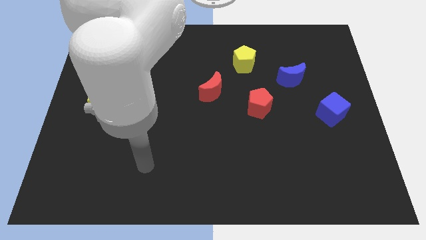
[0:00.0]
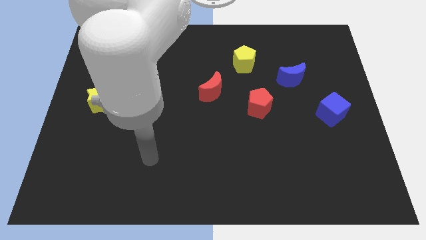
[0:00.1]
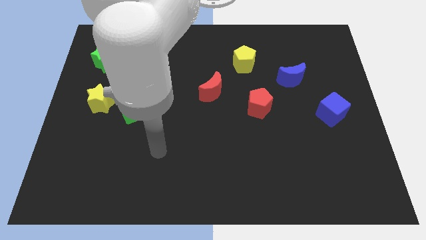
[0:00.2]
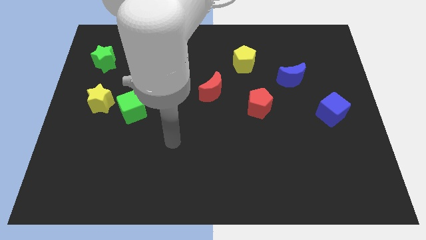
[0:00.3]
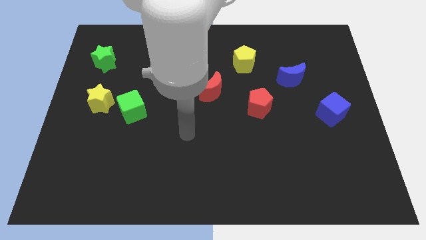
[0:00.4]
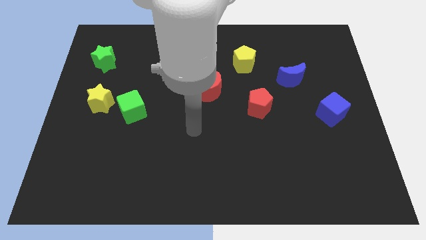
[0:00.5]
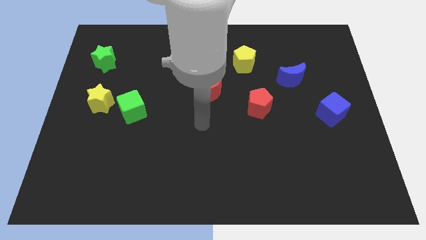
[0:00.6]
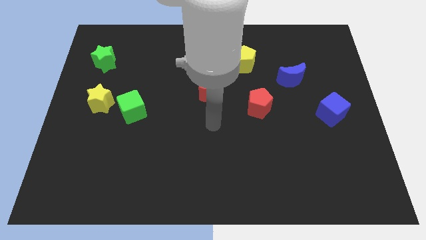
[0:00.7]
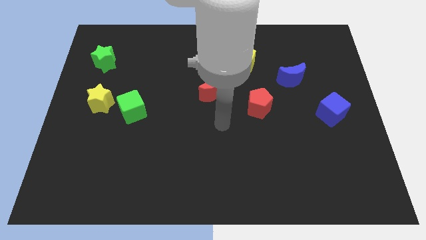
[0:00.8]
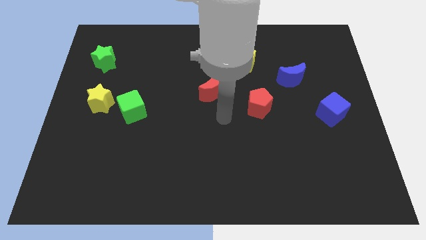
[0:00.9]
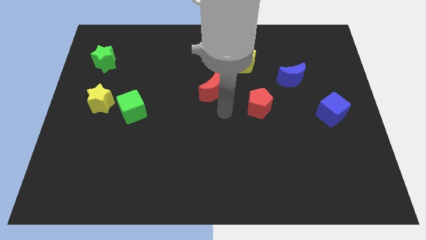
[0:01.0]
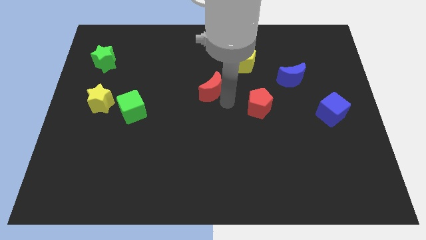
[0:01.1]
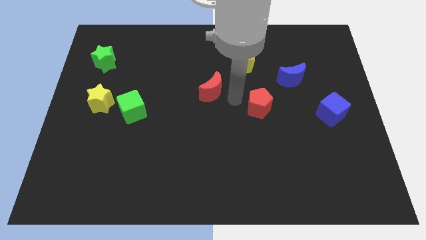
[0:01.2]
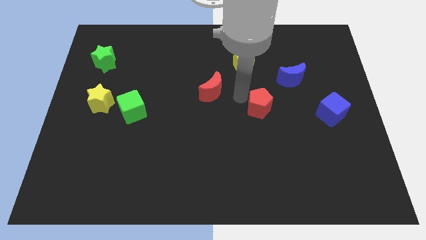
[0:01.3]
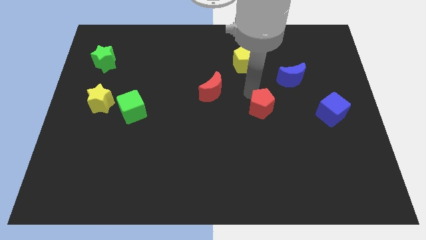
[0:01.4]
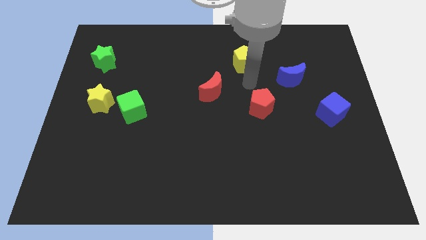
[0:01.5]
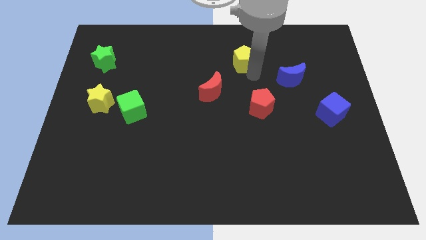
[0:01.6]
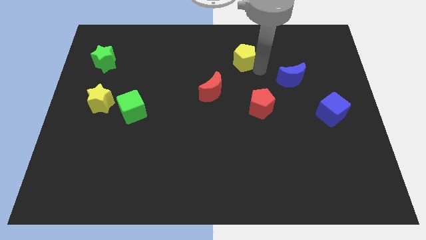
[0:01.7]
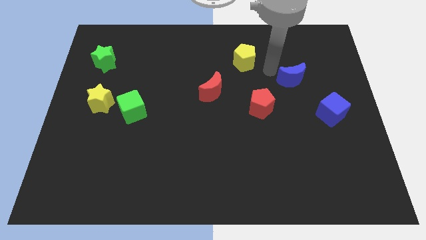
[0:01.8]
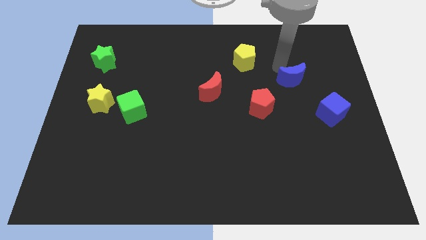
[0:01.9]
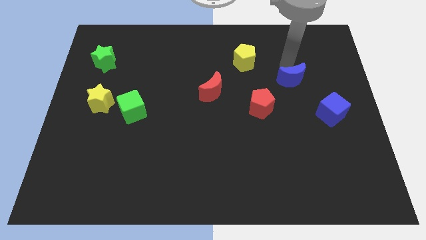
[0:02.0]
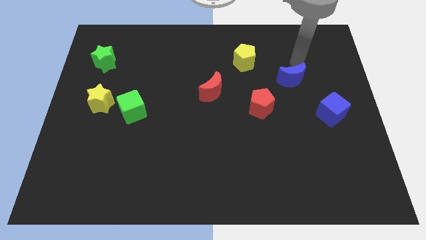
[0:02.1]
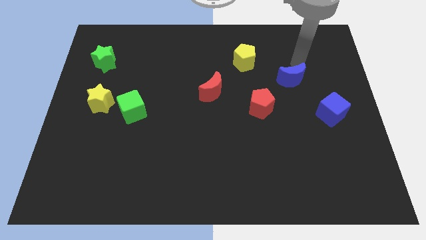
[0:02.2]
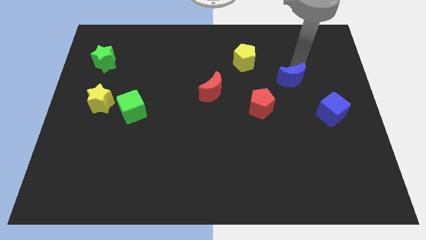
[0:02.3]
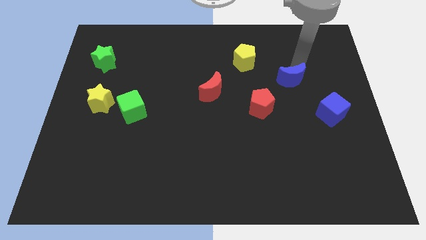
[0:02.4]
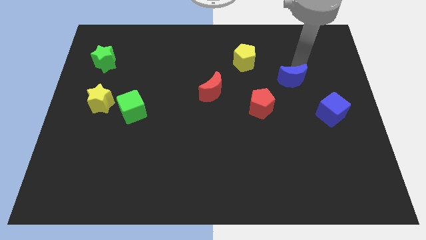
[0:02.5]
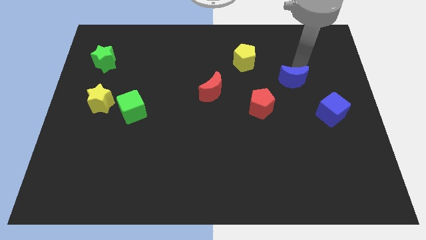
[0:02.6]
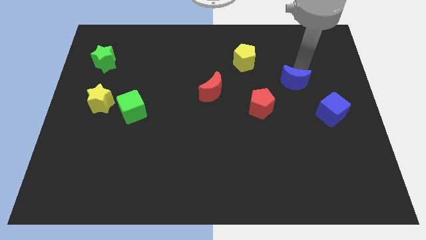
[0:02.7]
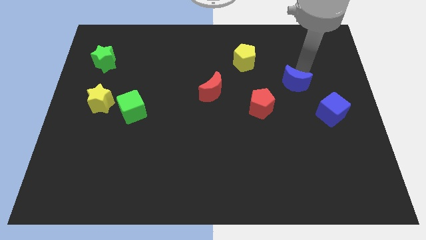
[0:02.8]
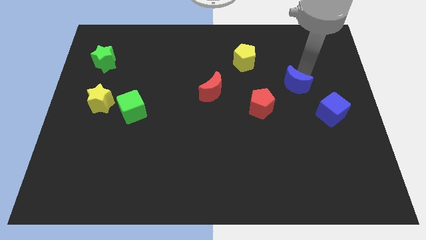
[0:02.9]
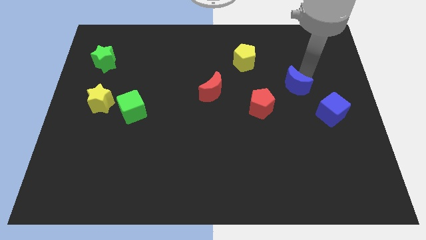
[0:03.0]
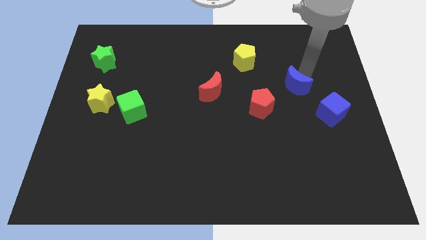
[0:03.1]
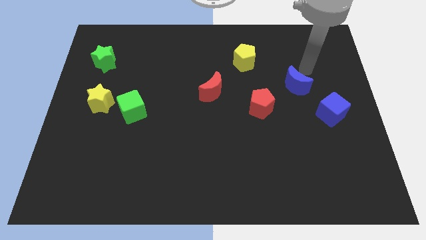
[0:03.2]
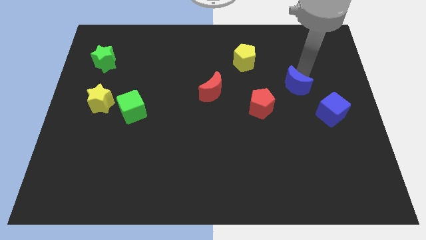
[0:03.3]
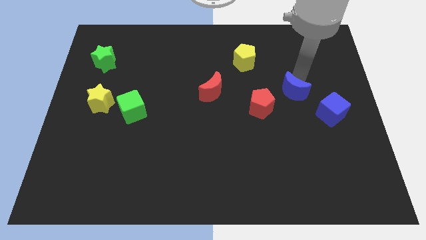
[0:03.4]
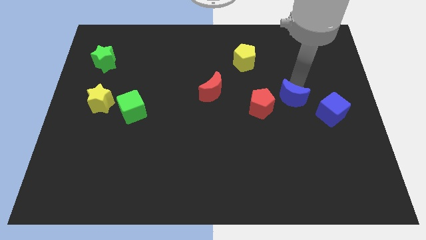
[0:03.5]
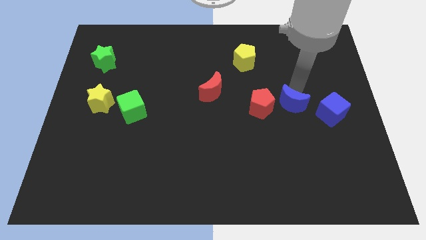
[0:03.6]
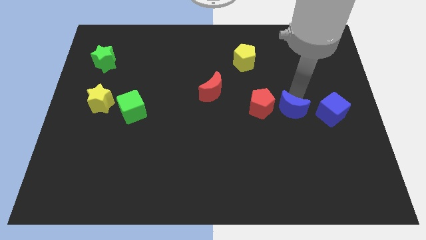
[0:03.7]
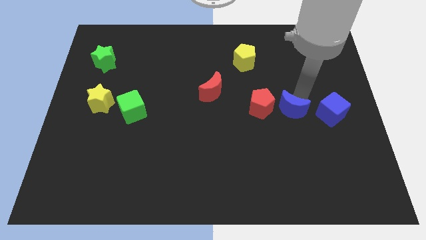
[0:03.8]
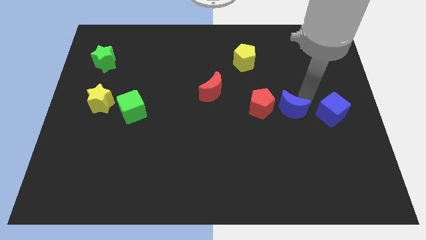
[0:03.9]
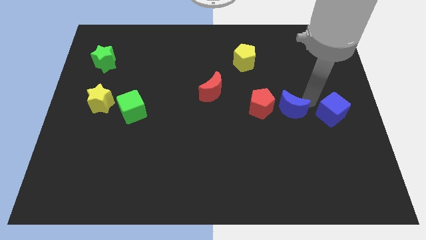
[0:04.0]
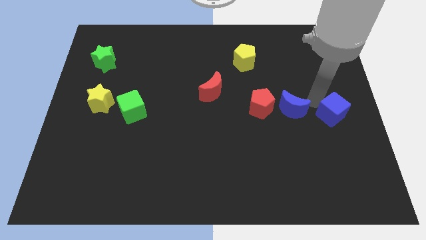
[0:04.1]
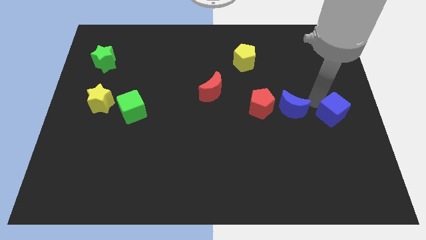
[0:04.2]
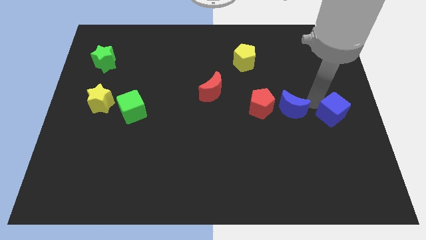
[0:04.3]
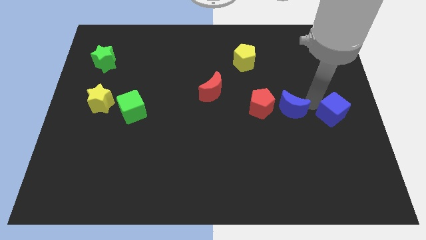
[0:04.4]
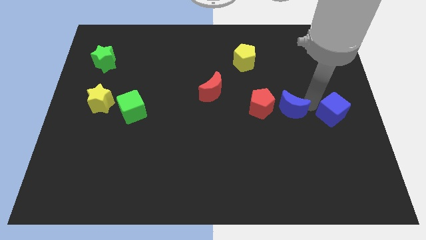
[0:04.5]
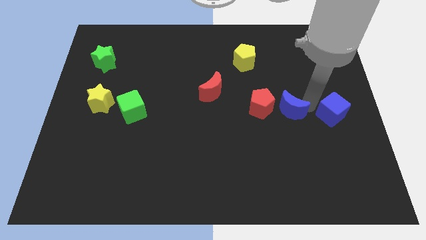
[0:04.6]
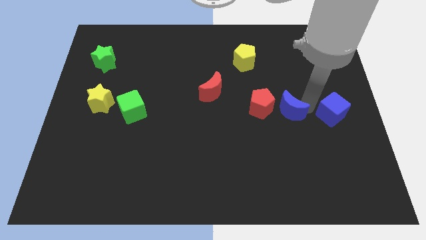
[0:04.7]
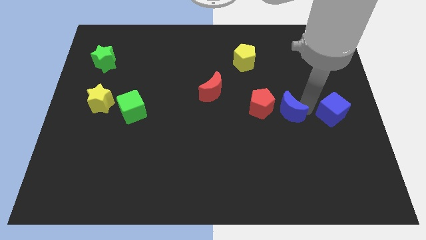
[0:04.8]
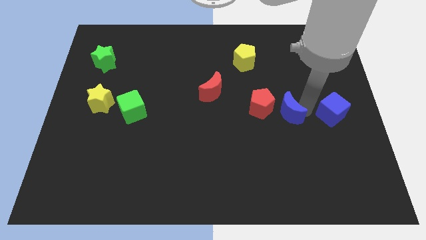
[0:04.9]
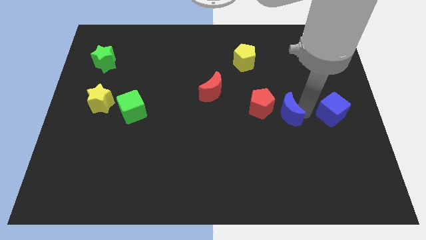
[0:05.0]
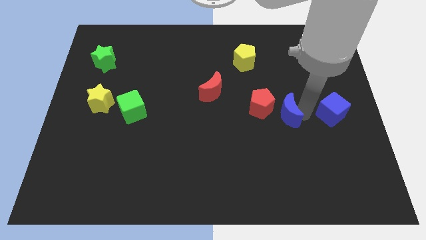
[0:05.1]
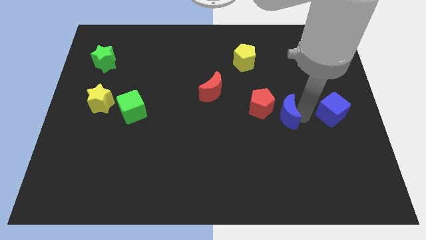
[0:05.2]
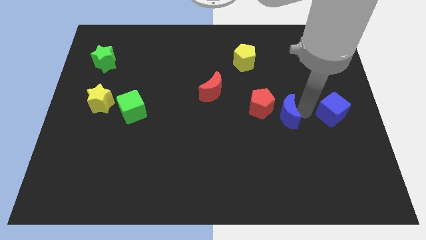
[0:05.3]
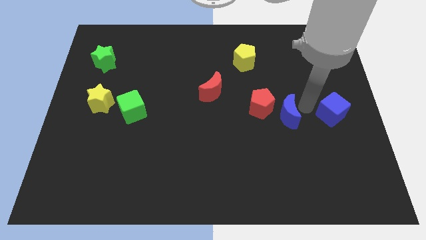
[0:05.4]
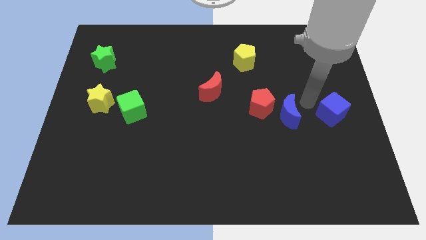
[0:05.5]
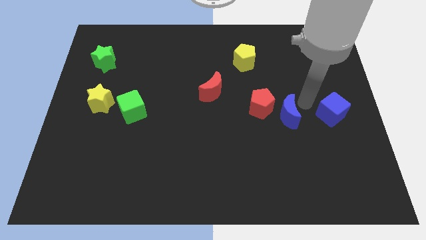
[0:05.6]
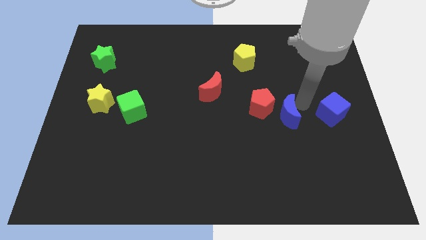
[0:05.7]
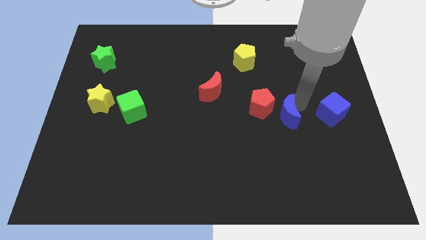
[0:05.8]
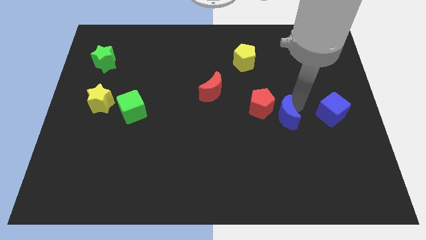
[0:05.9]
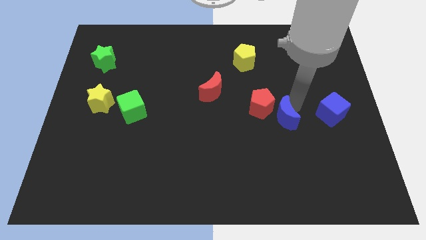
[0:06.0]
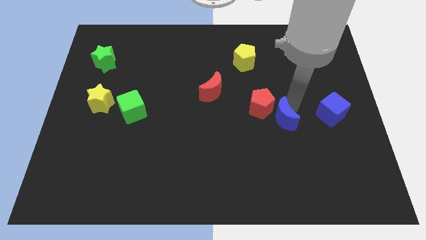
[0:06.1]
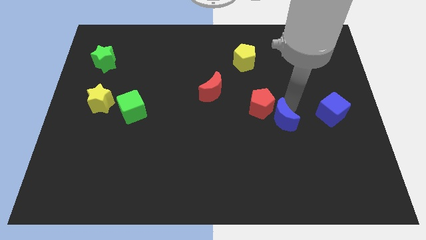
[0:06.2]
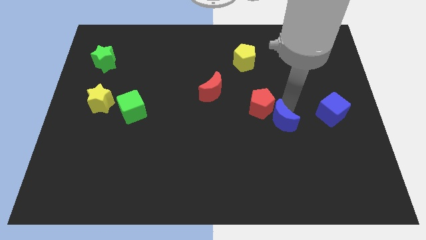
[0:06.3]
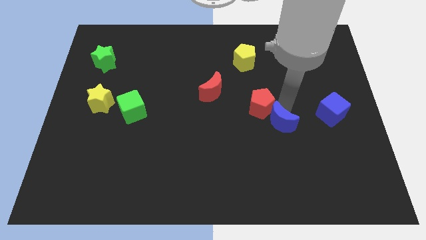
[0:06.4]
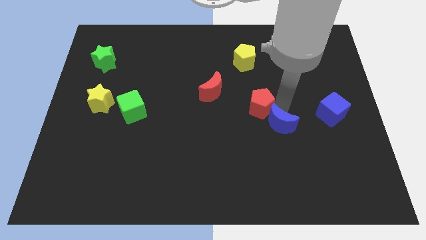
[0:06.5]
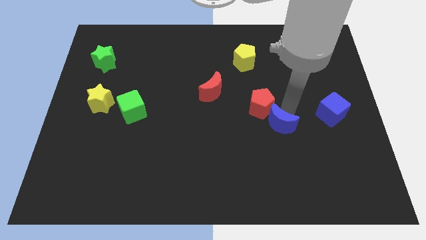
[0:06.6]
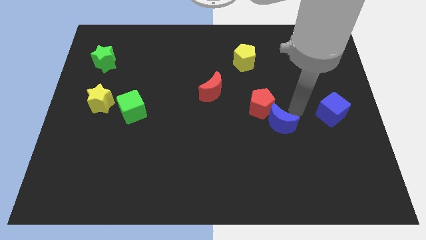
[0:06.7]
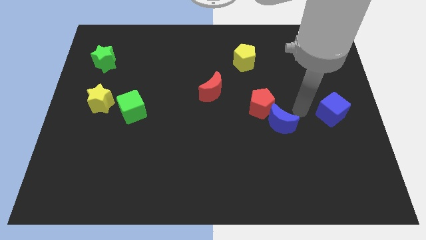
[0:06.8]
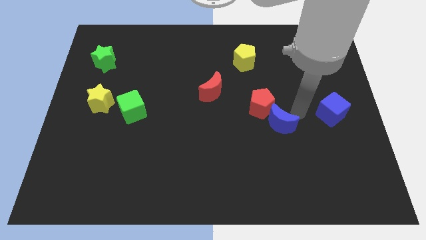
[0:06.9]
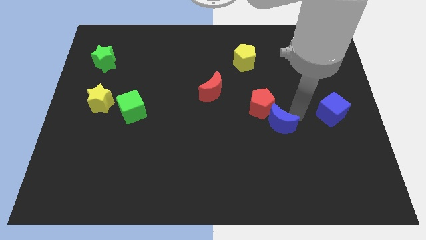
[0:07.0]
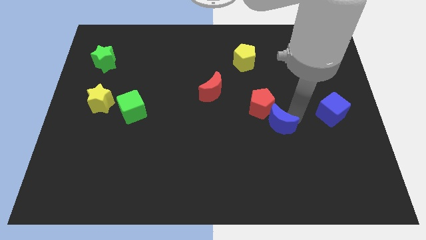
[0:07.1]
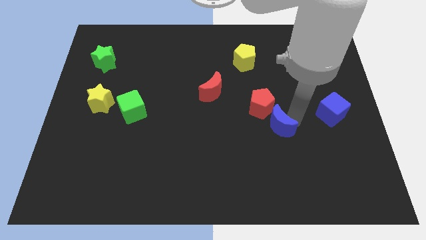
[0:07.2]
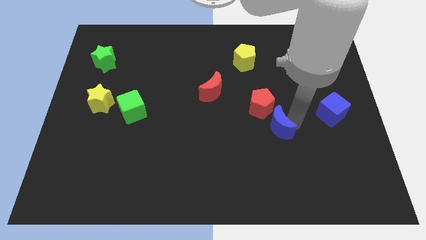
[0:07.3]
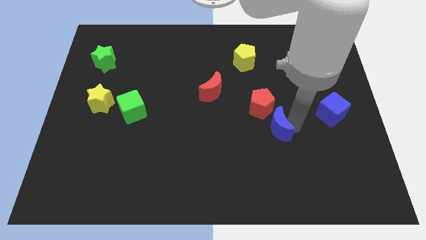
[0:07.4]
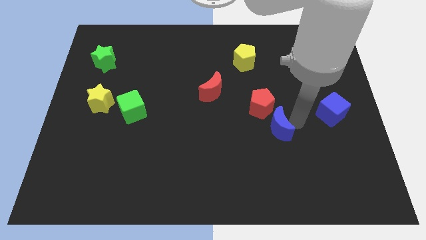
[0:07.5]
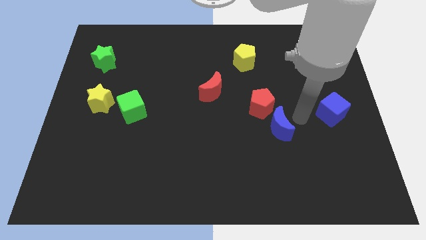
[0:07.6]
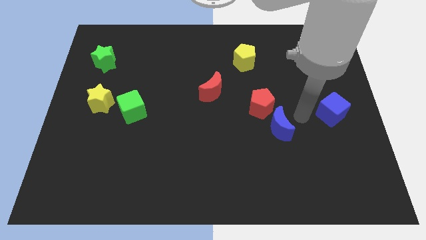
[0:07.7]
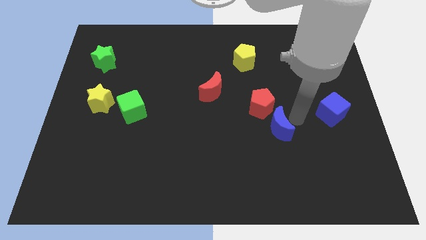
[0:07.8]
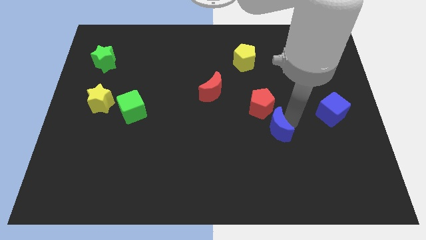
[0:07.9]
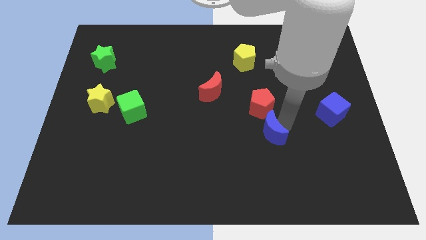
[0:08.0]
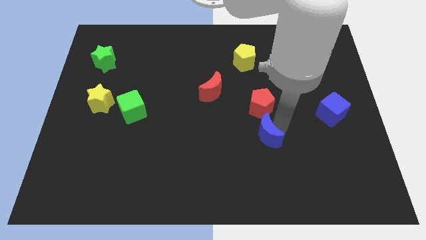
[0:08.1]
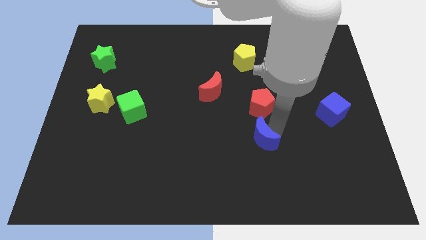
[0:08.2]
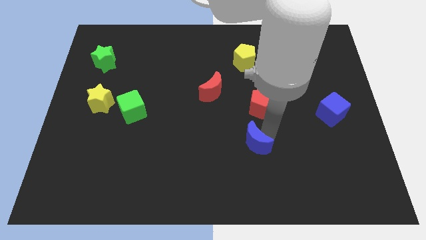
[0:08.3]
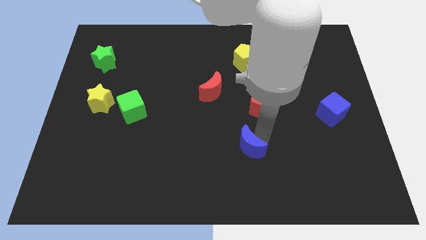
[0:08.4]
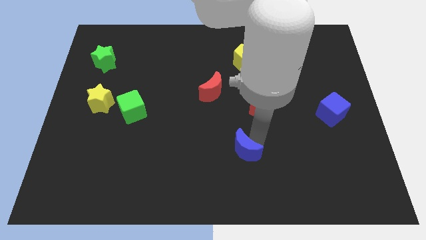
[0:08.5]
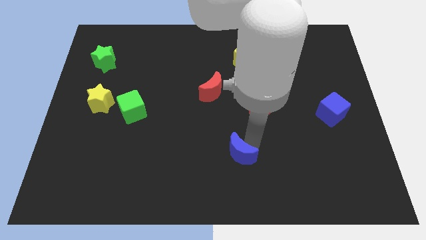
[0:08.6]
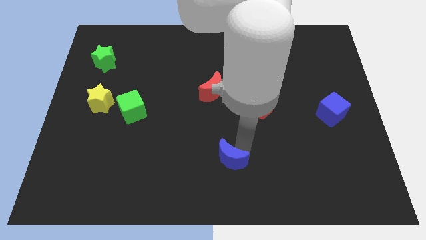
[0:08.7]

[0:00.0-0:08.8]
move the blue moon to the bottom side
